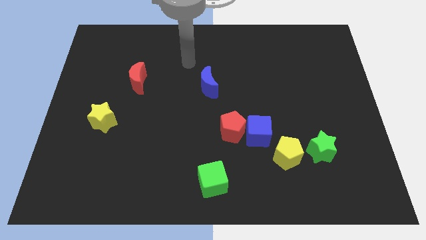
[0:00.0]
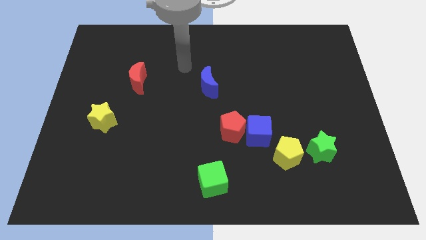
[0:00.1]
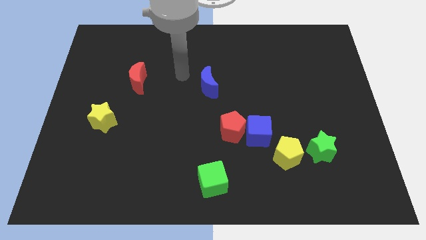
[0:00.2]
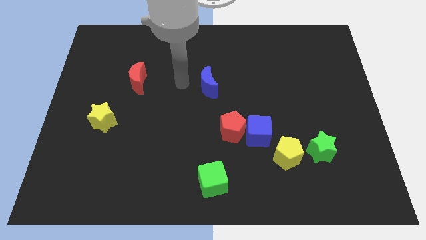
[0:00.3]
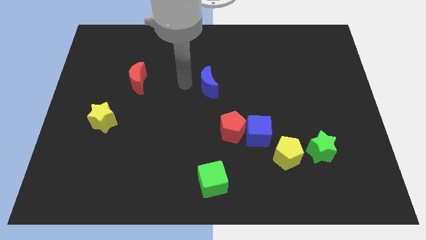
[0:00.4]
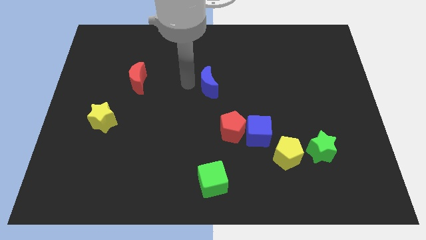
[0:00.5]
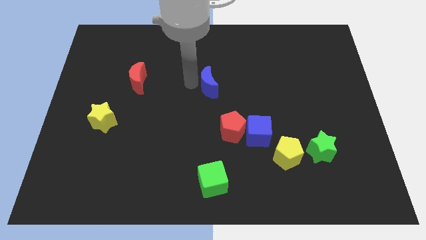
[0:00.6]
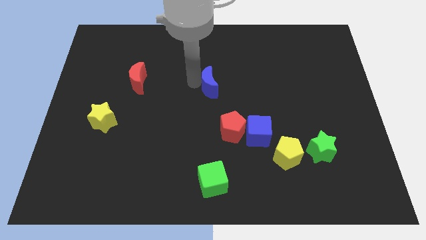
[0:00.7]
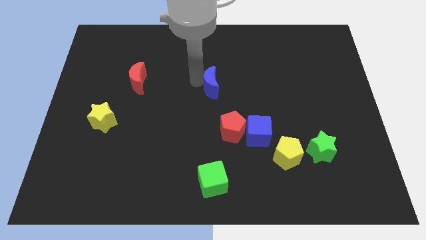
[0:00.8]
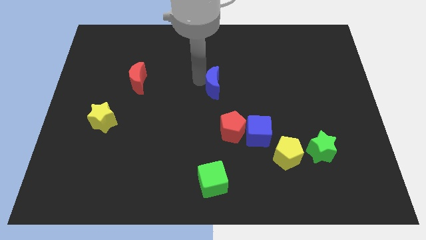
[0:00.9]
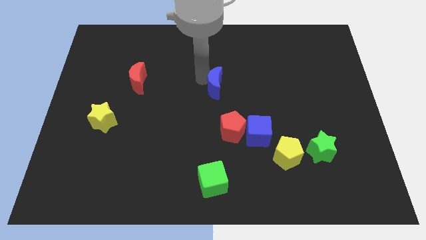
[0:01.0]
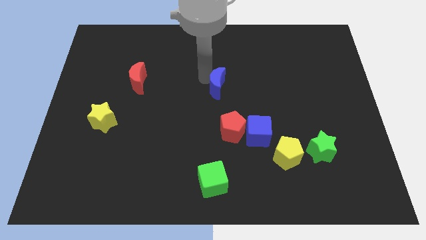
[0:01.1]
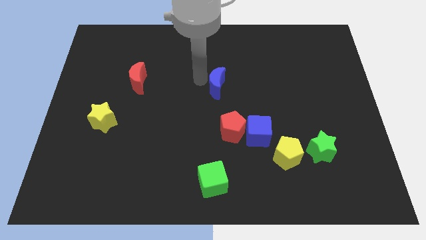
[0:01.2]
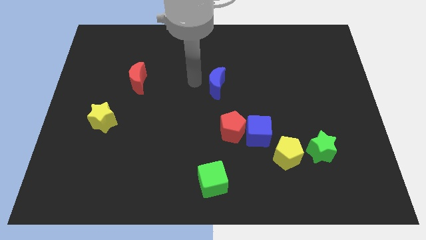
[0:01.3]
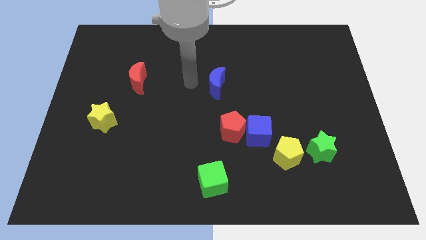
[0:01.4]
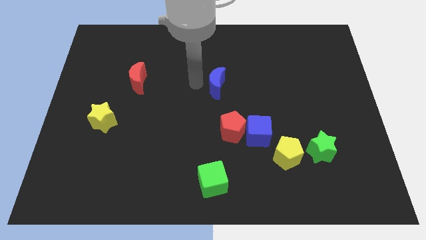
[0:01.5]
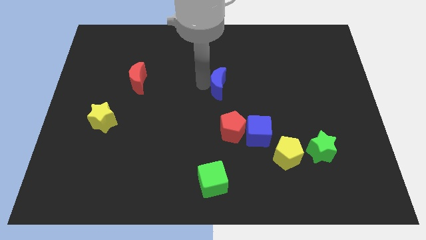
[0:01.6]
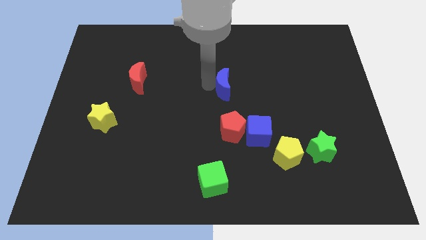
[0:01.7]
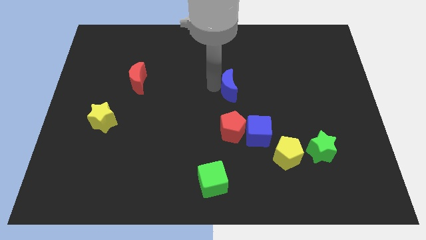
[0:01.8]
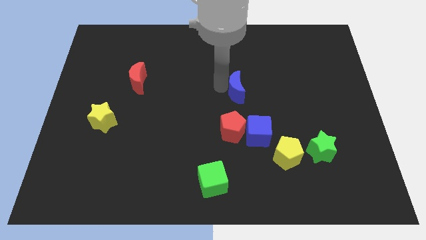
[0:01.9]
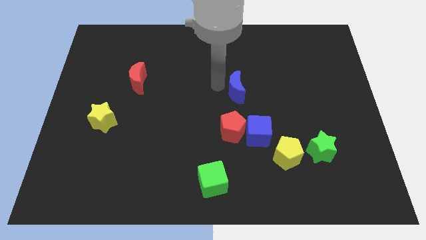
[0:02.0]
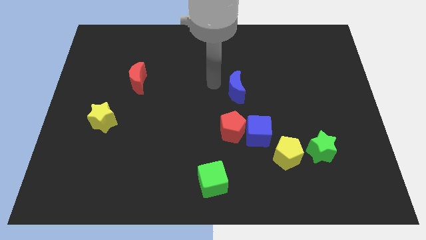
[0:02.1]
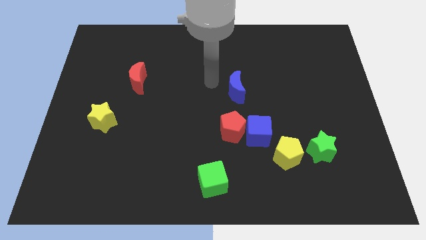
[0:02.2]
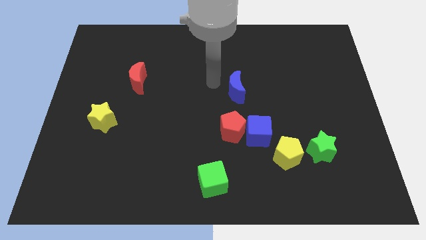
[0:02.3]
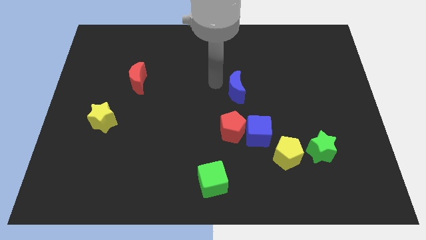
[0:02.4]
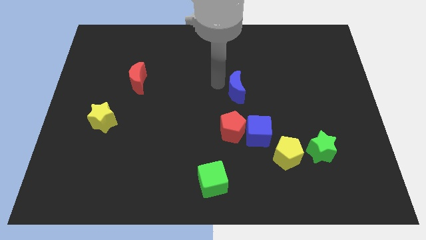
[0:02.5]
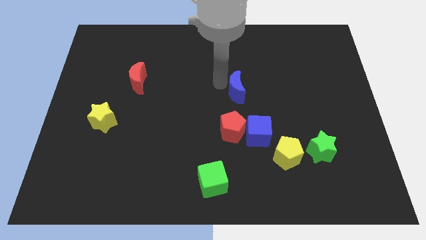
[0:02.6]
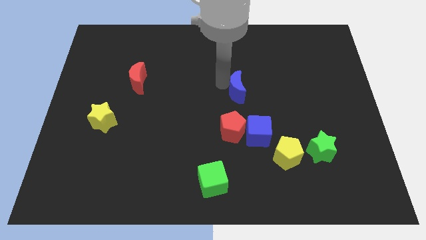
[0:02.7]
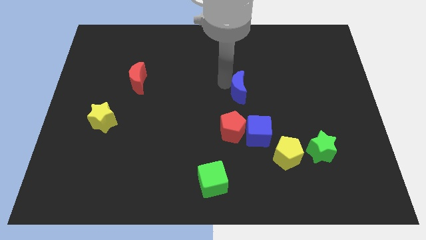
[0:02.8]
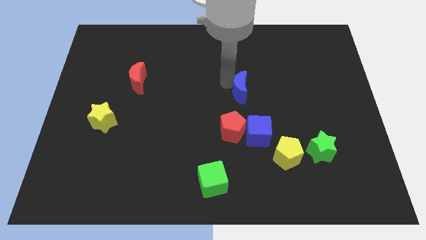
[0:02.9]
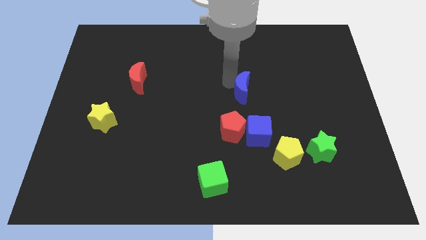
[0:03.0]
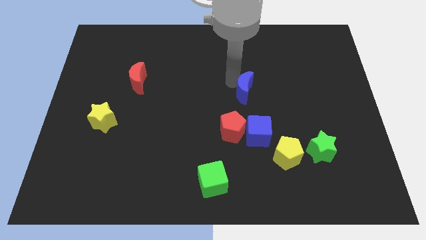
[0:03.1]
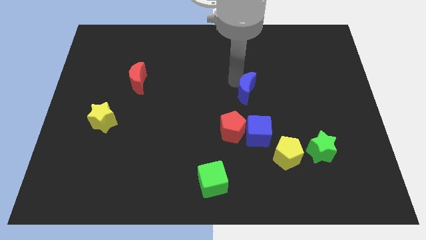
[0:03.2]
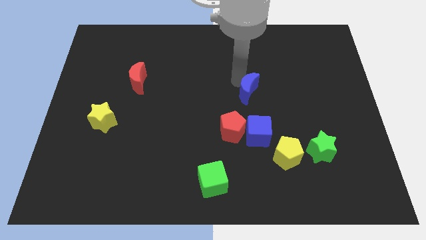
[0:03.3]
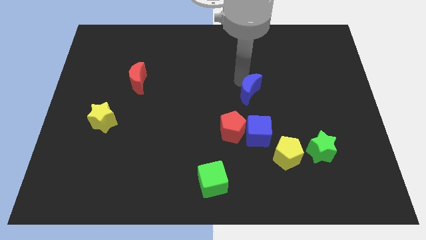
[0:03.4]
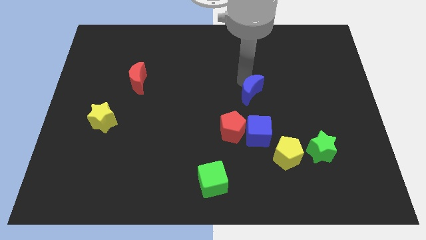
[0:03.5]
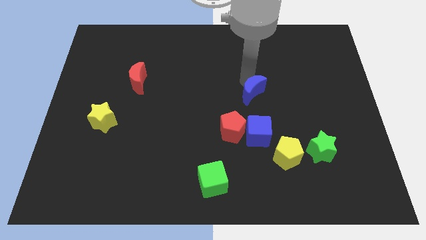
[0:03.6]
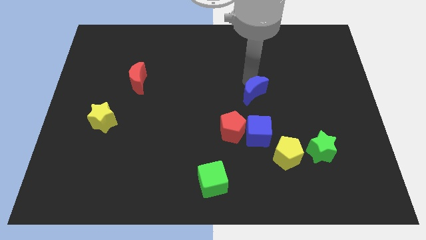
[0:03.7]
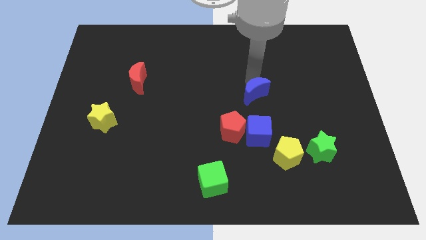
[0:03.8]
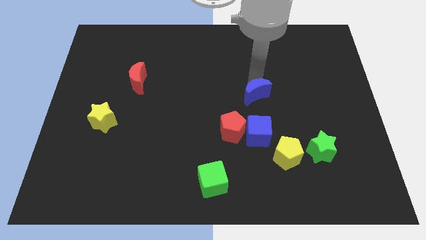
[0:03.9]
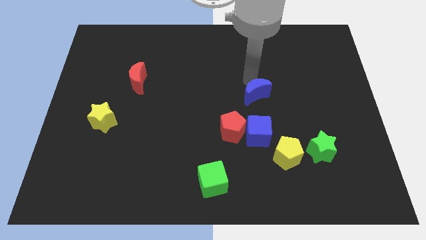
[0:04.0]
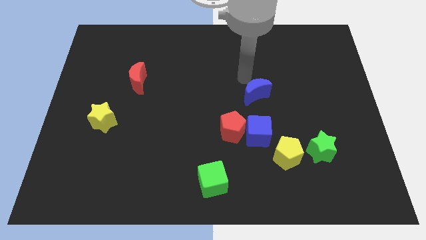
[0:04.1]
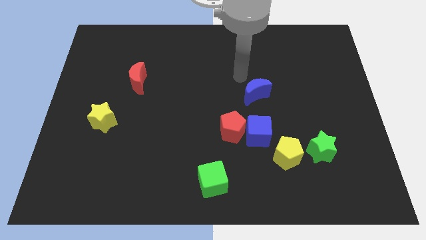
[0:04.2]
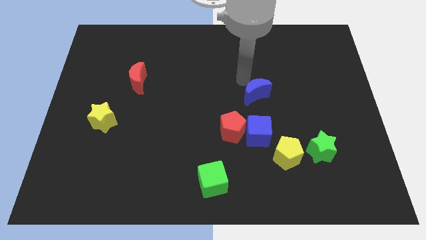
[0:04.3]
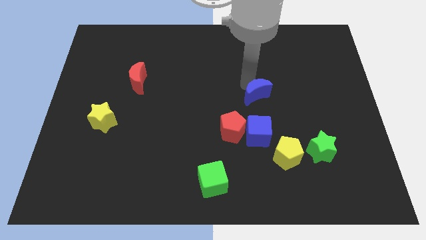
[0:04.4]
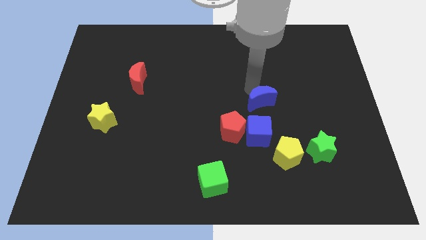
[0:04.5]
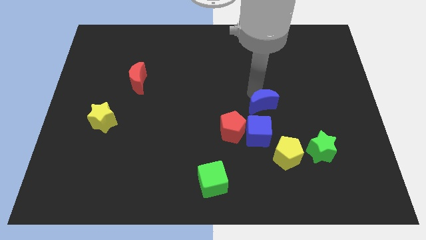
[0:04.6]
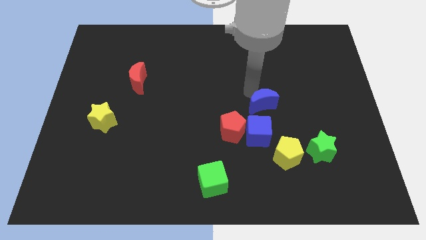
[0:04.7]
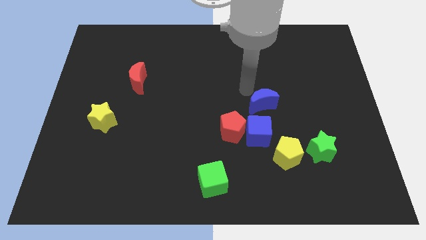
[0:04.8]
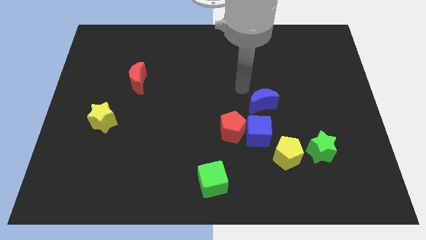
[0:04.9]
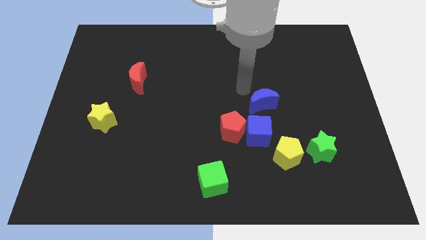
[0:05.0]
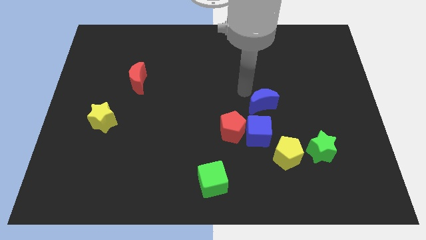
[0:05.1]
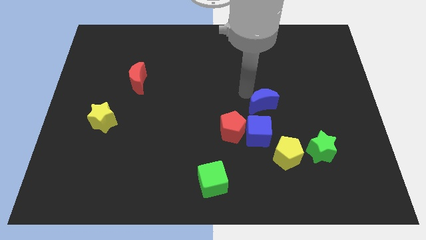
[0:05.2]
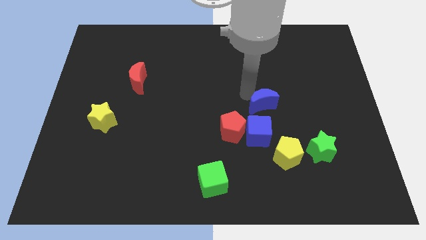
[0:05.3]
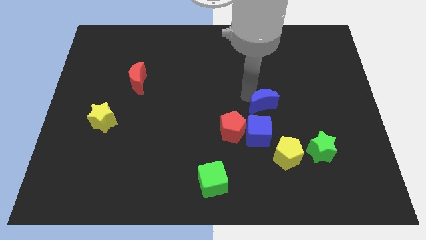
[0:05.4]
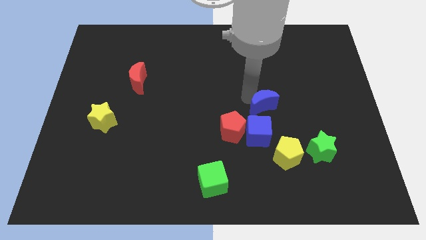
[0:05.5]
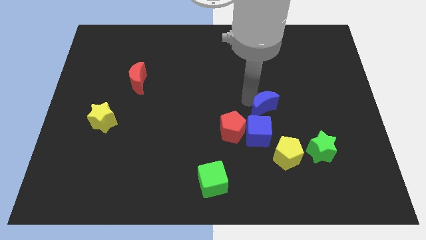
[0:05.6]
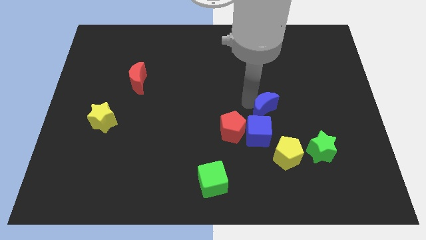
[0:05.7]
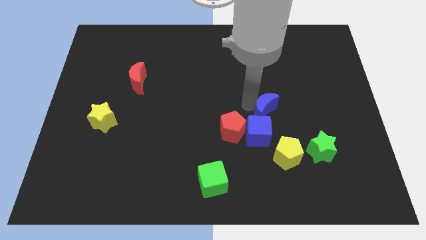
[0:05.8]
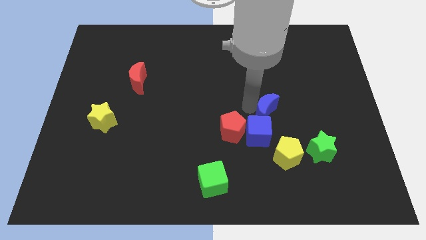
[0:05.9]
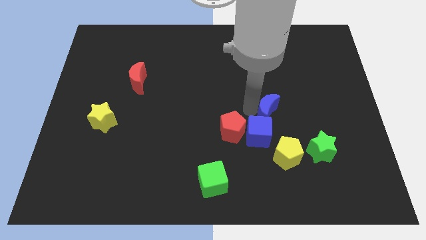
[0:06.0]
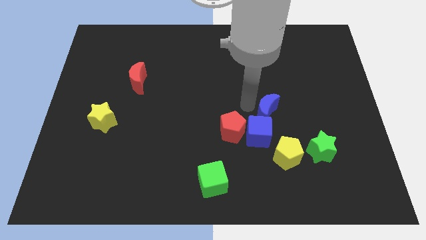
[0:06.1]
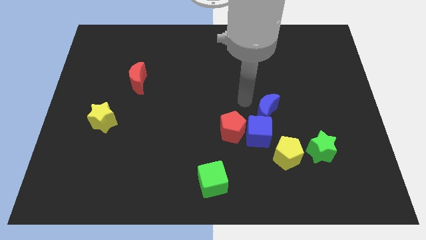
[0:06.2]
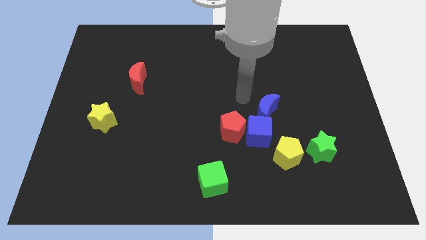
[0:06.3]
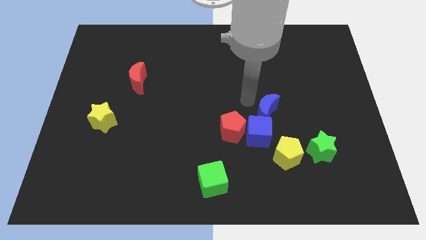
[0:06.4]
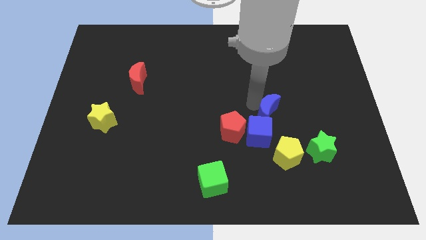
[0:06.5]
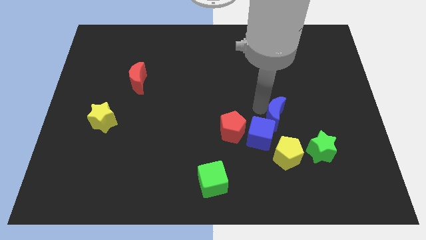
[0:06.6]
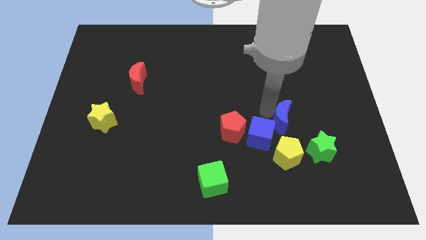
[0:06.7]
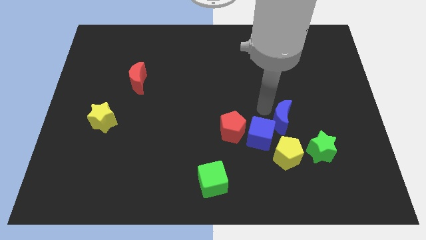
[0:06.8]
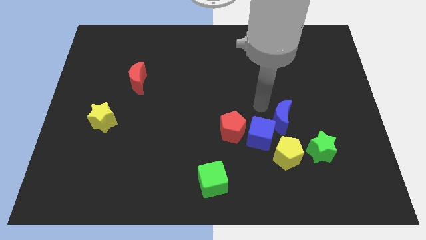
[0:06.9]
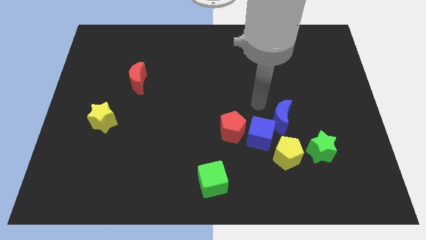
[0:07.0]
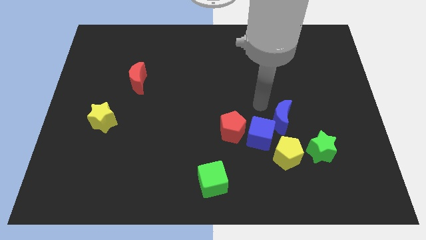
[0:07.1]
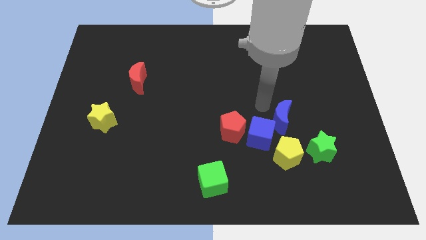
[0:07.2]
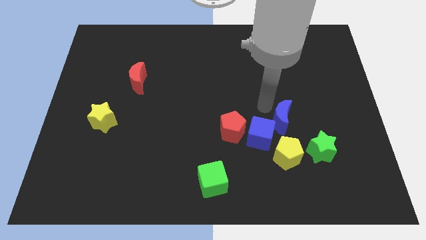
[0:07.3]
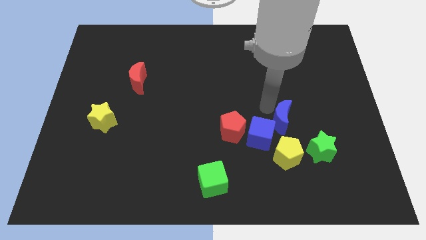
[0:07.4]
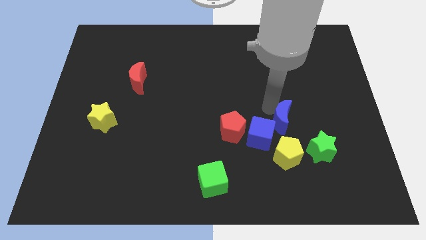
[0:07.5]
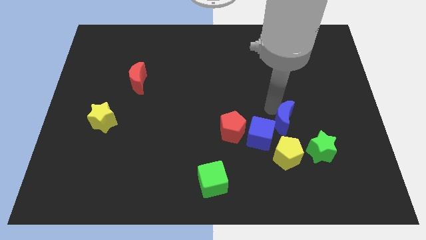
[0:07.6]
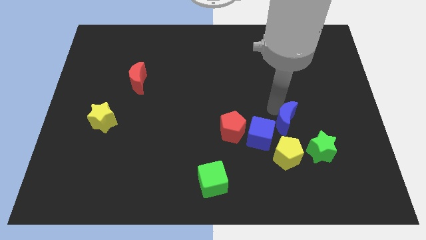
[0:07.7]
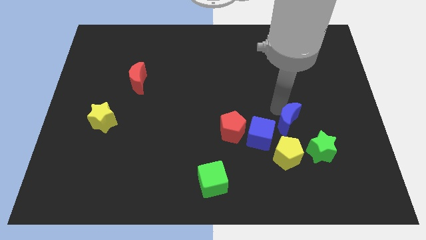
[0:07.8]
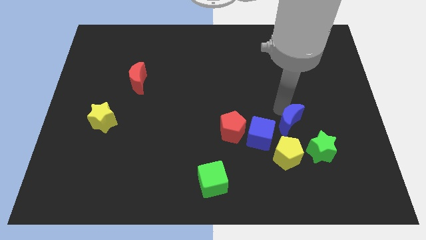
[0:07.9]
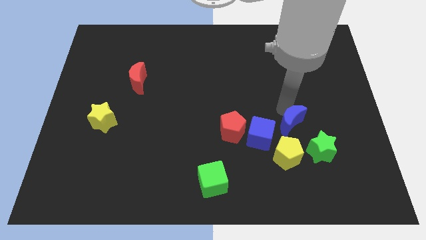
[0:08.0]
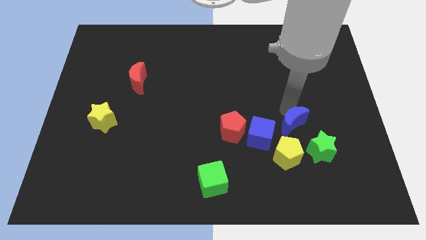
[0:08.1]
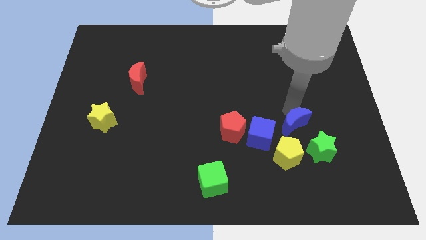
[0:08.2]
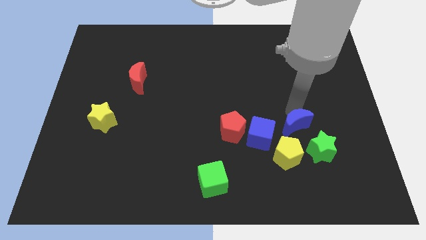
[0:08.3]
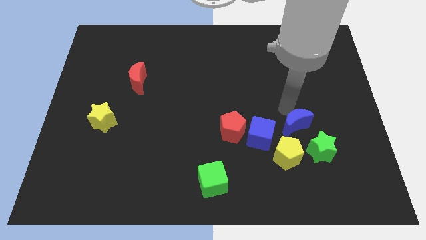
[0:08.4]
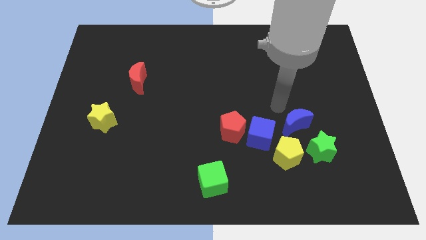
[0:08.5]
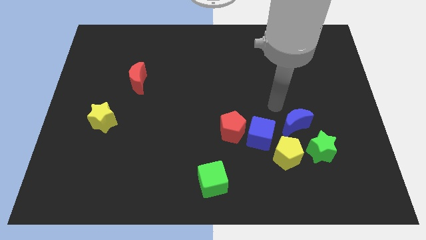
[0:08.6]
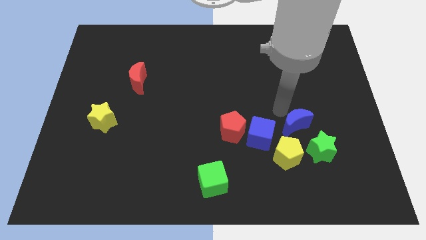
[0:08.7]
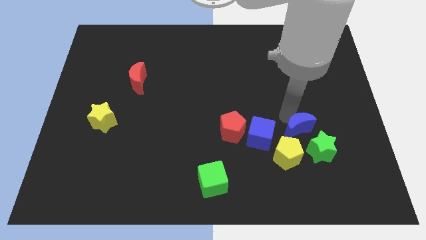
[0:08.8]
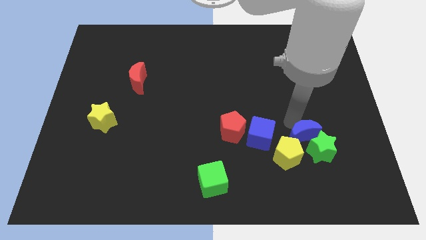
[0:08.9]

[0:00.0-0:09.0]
move the blue moon next to the green star
